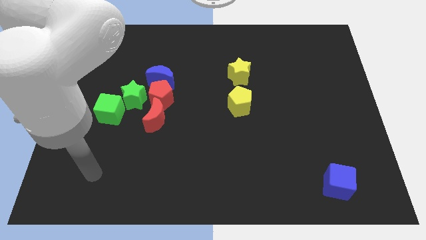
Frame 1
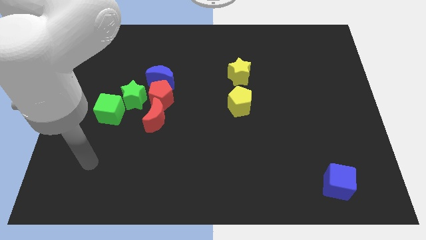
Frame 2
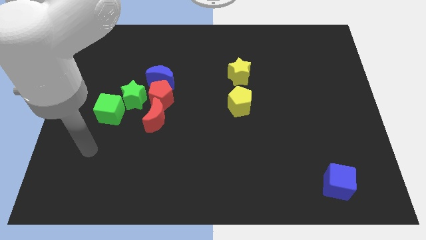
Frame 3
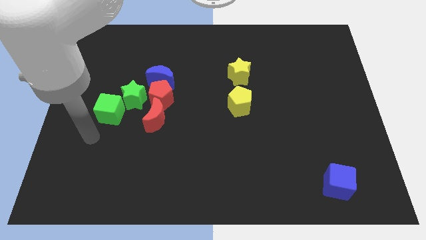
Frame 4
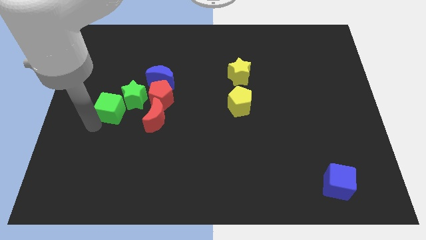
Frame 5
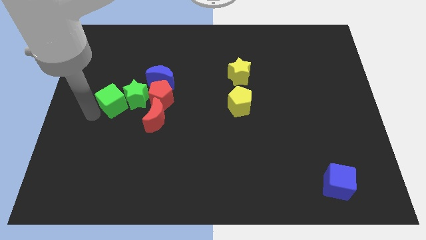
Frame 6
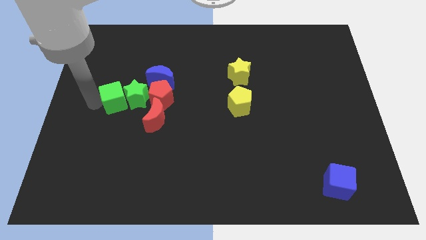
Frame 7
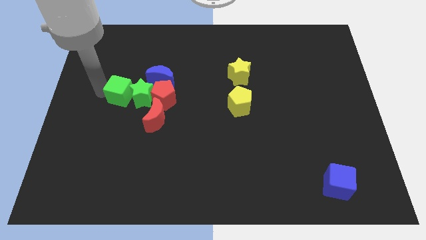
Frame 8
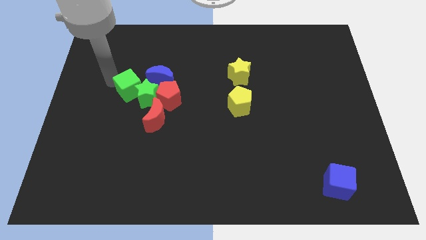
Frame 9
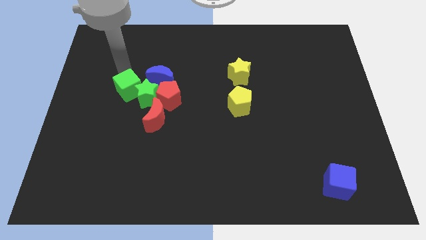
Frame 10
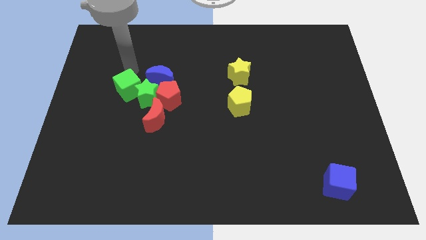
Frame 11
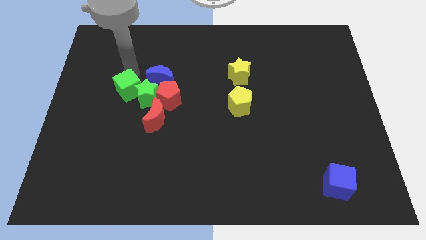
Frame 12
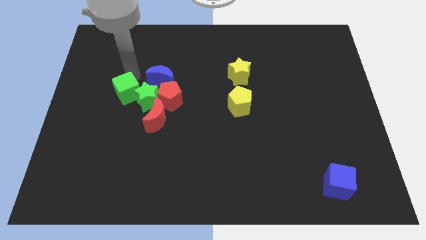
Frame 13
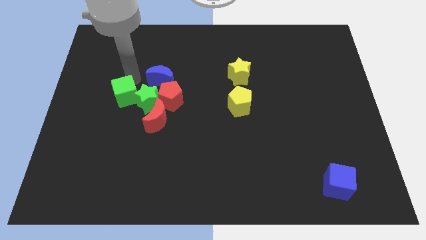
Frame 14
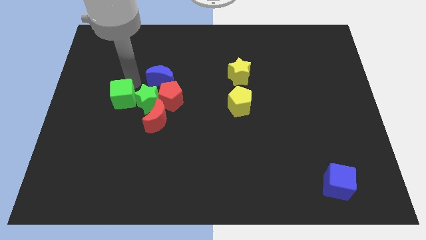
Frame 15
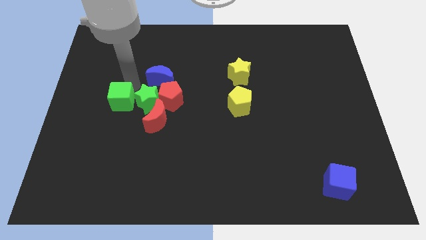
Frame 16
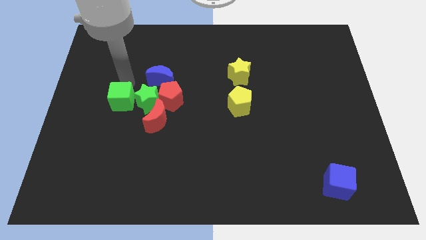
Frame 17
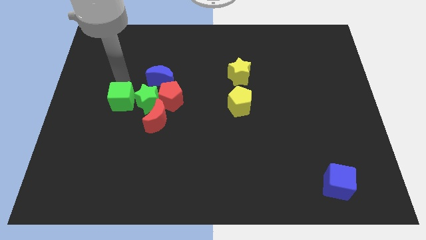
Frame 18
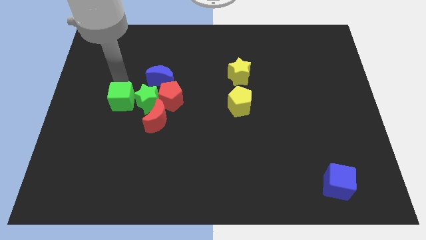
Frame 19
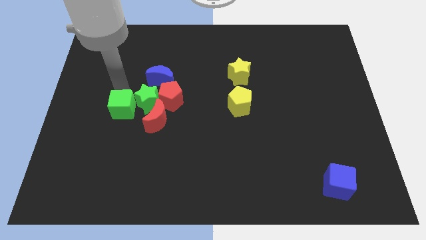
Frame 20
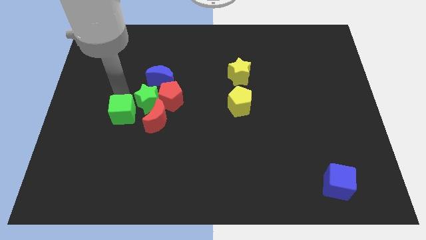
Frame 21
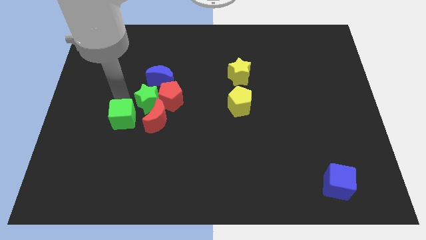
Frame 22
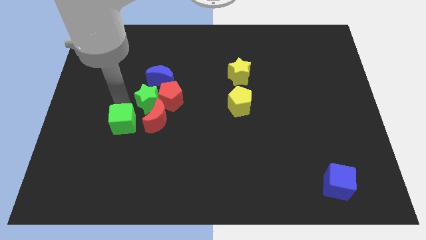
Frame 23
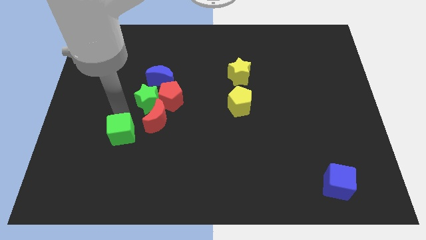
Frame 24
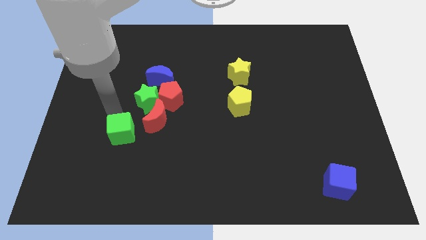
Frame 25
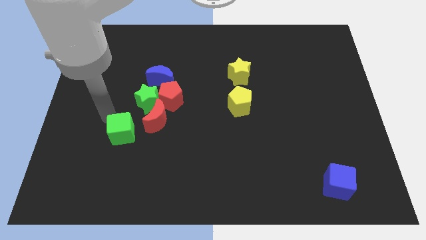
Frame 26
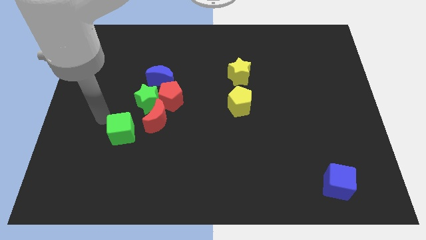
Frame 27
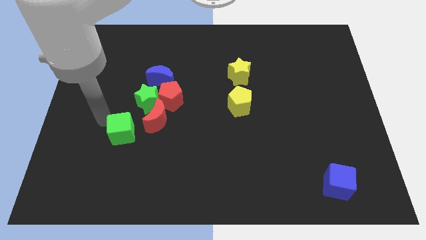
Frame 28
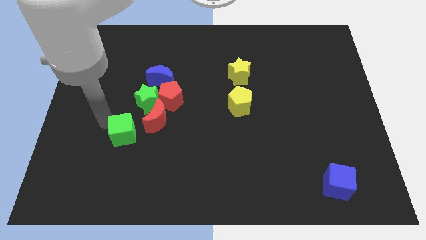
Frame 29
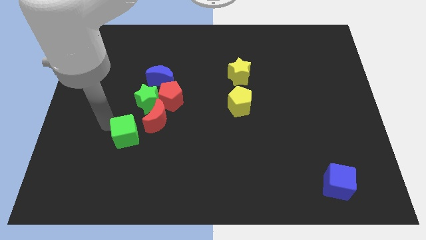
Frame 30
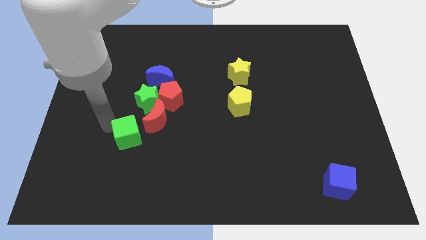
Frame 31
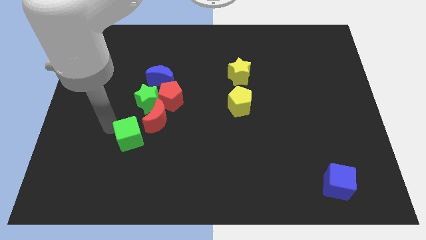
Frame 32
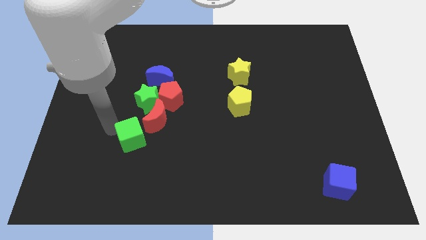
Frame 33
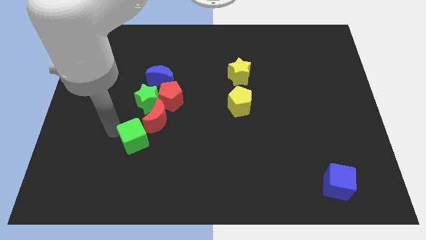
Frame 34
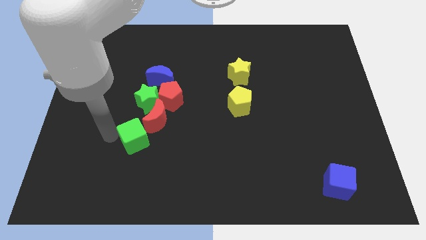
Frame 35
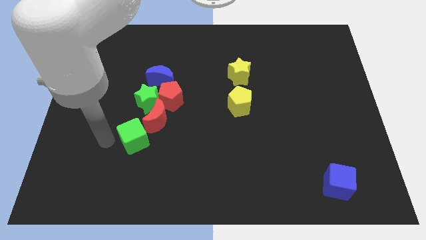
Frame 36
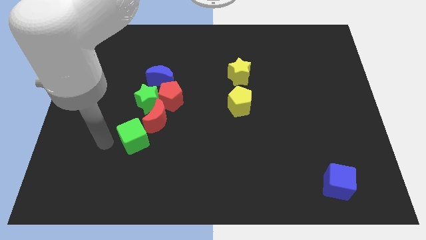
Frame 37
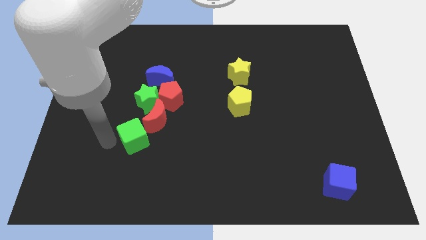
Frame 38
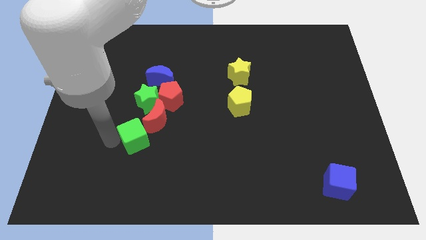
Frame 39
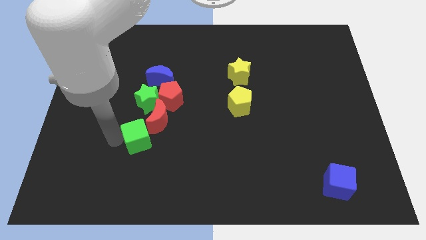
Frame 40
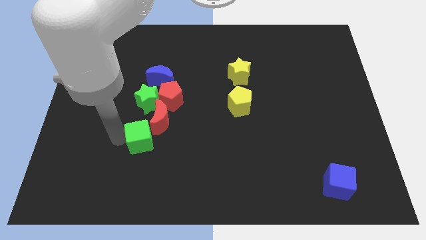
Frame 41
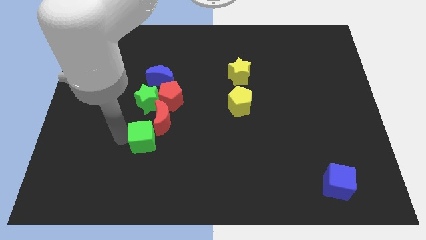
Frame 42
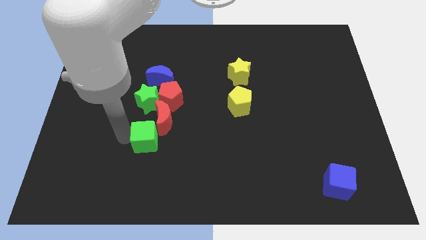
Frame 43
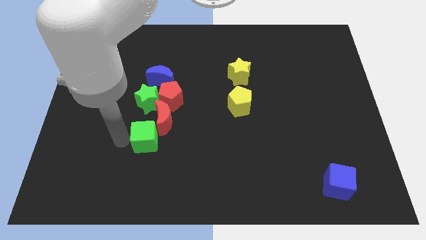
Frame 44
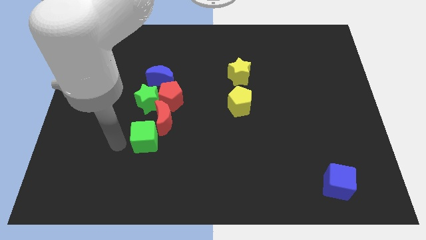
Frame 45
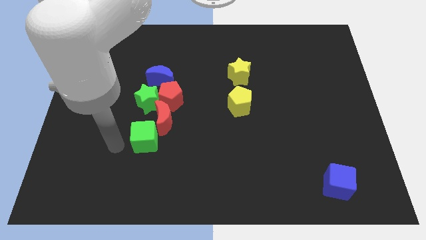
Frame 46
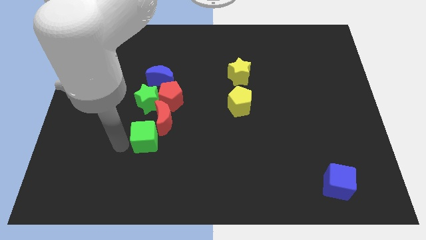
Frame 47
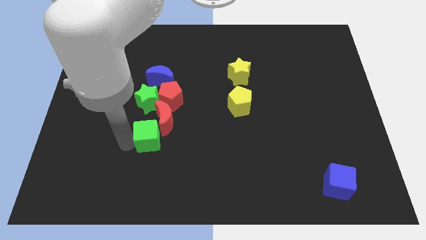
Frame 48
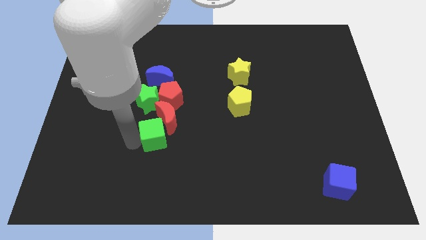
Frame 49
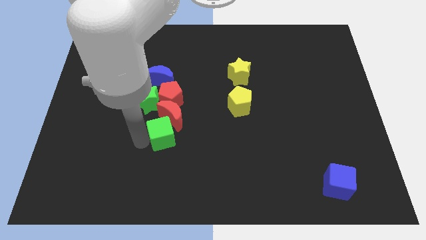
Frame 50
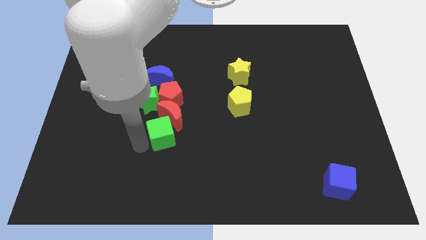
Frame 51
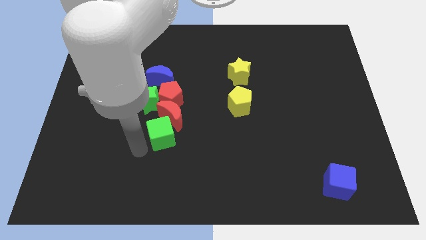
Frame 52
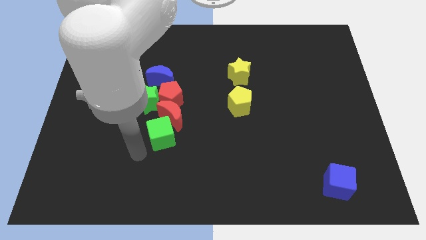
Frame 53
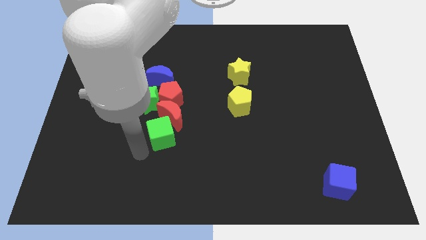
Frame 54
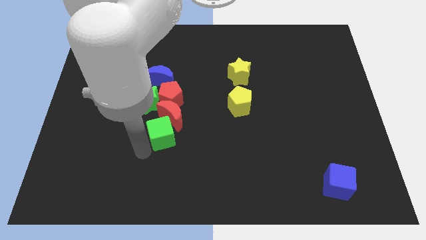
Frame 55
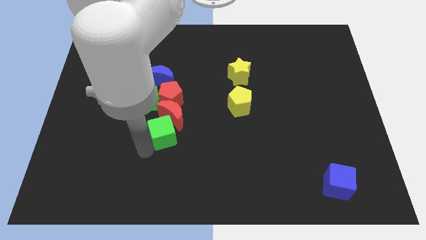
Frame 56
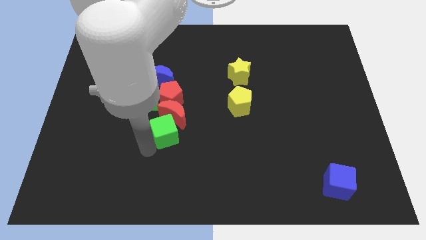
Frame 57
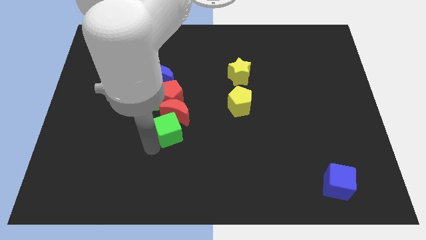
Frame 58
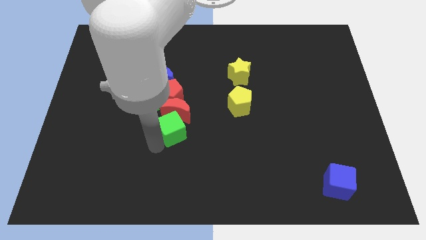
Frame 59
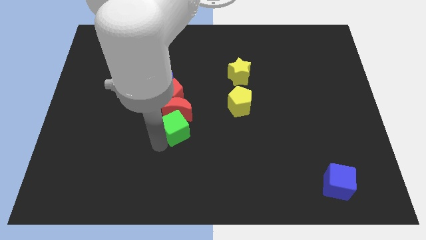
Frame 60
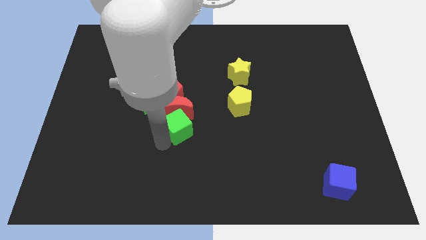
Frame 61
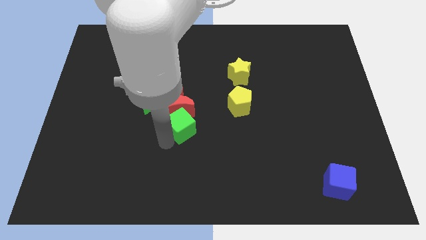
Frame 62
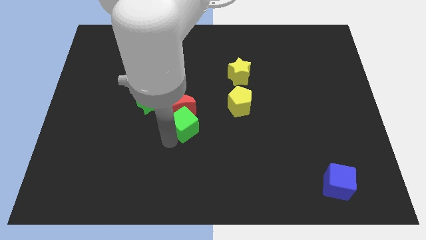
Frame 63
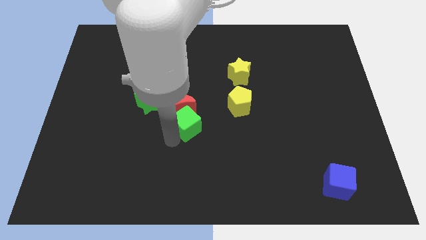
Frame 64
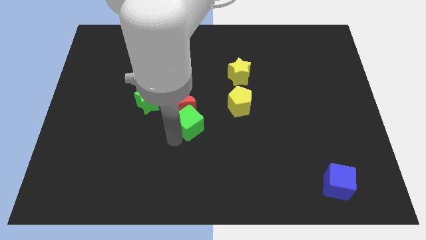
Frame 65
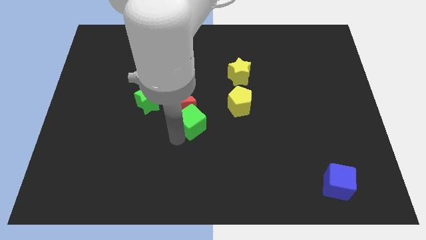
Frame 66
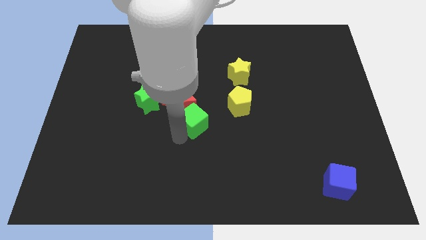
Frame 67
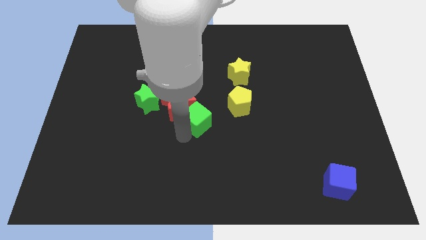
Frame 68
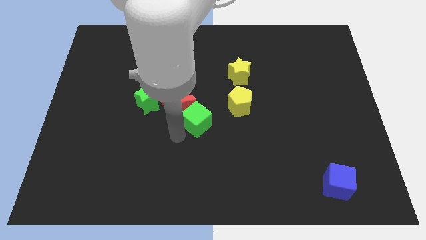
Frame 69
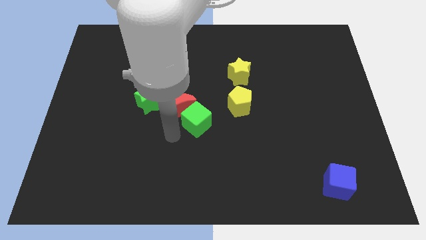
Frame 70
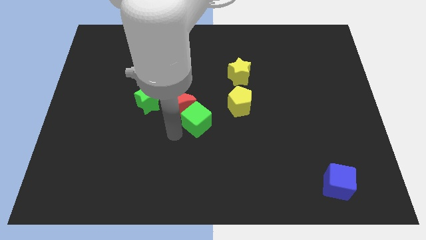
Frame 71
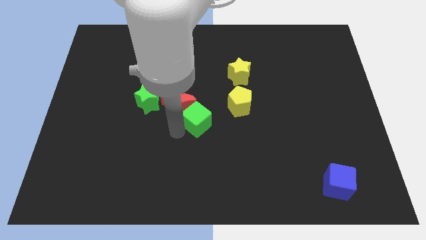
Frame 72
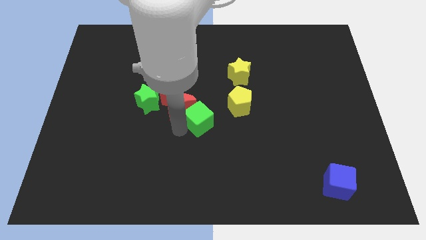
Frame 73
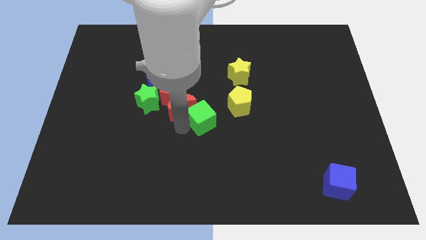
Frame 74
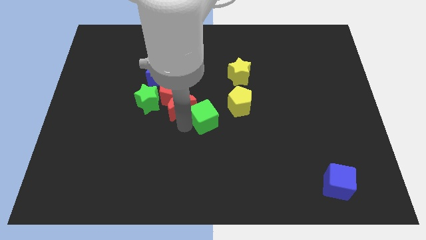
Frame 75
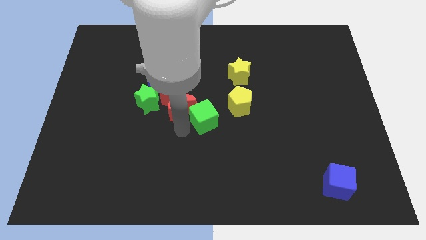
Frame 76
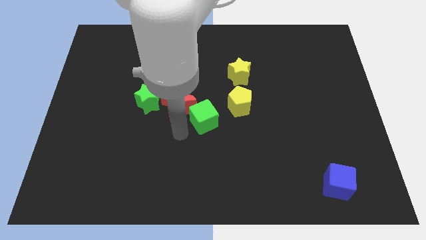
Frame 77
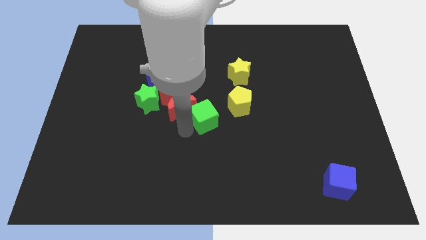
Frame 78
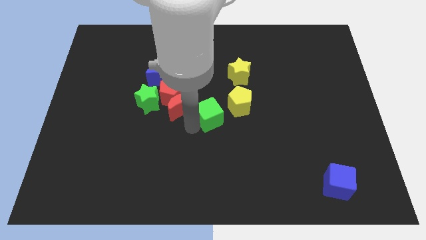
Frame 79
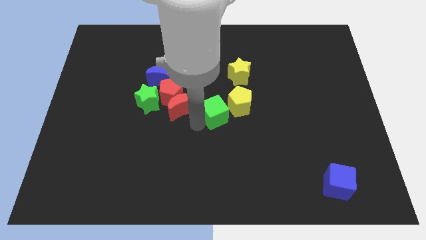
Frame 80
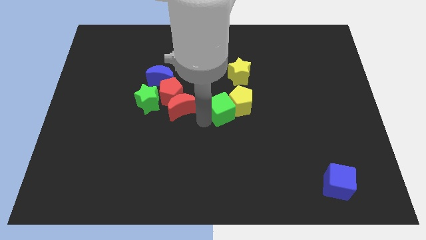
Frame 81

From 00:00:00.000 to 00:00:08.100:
put the green cube next to the yellow pentagon
